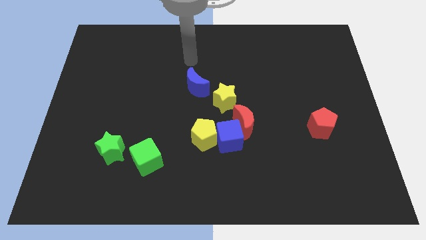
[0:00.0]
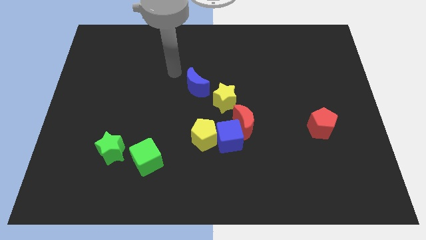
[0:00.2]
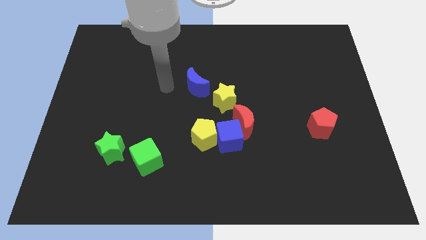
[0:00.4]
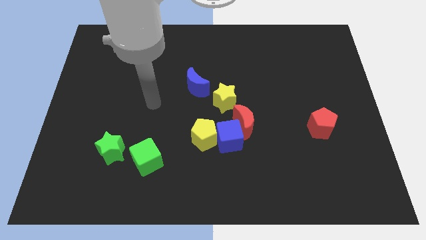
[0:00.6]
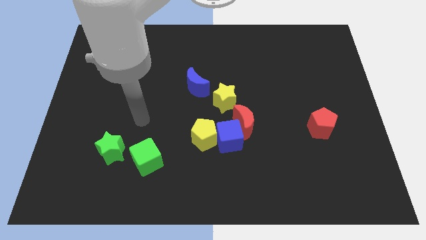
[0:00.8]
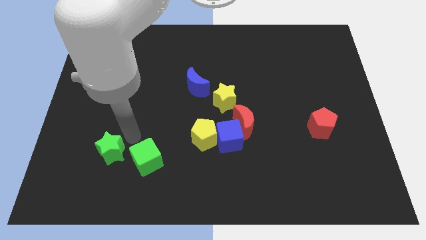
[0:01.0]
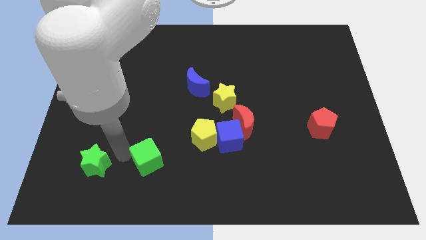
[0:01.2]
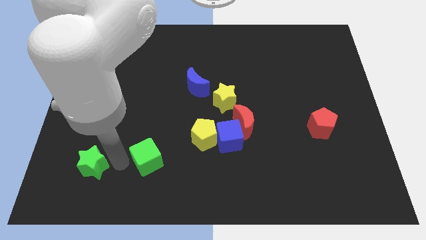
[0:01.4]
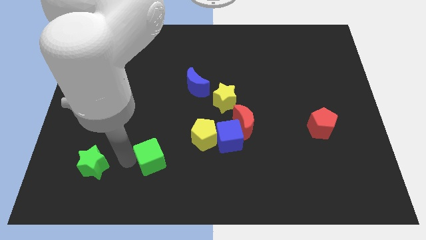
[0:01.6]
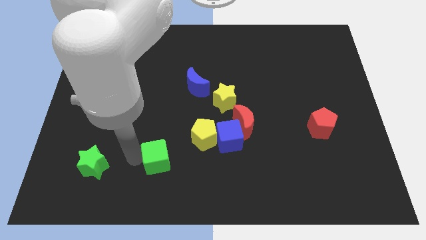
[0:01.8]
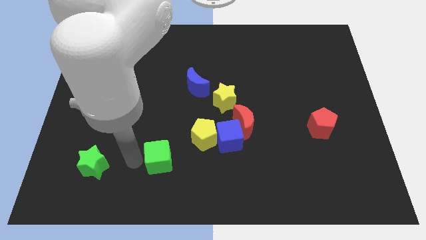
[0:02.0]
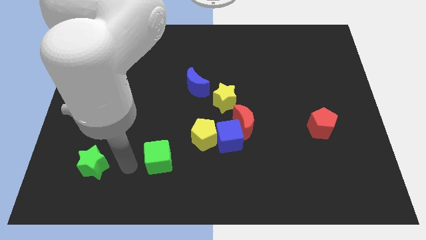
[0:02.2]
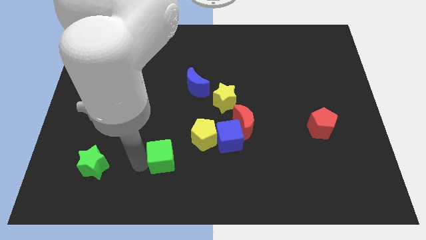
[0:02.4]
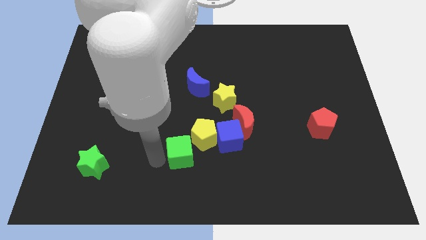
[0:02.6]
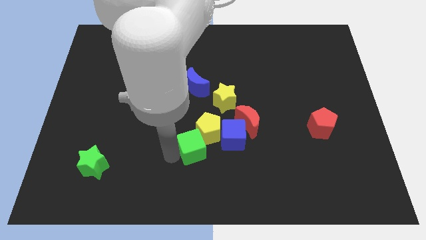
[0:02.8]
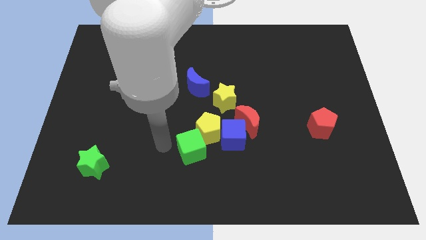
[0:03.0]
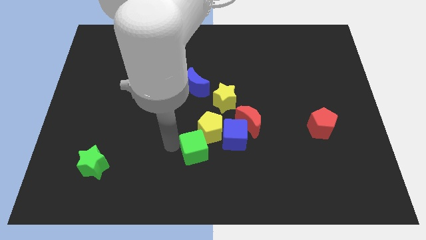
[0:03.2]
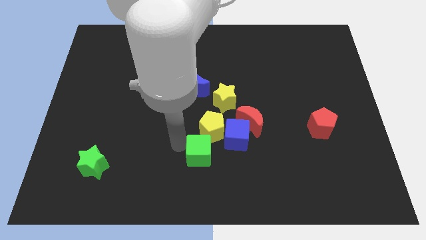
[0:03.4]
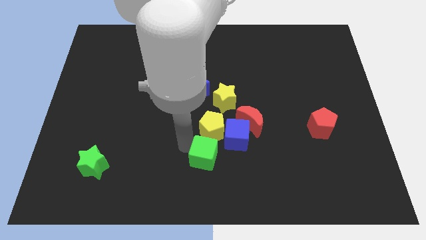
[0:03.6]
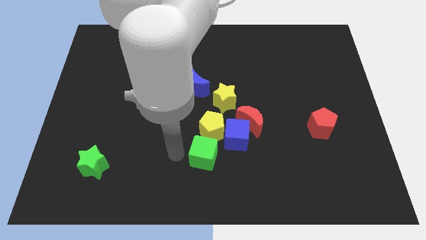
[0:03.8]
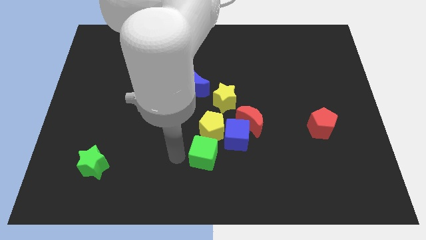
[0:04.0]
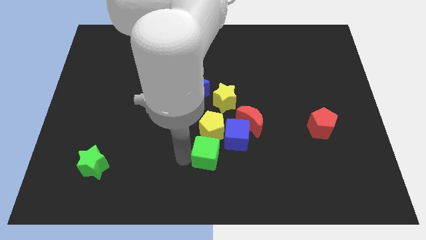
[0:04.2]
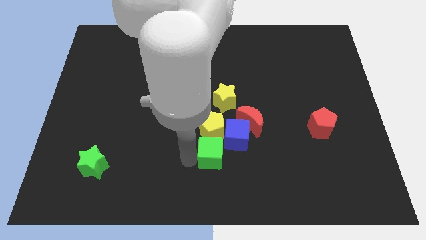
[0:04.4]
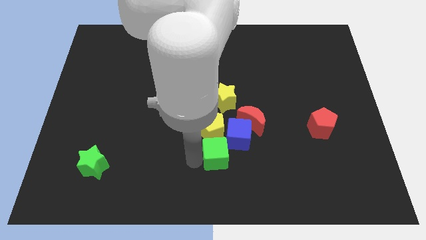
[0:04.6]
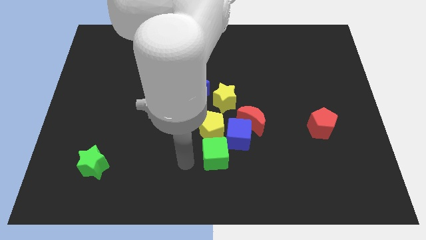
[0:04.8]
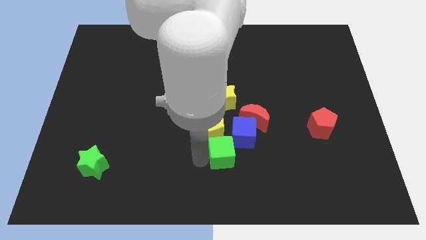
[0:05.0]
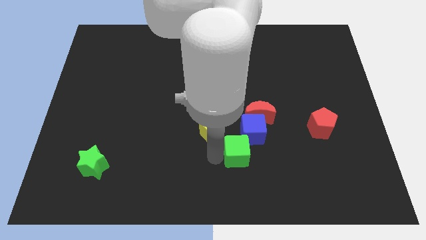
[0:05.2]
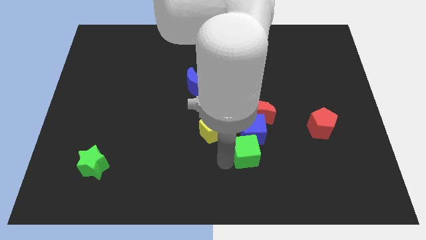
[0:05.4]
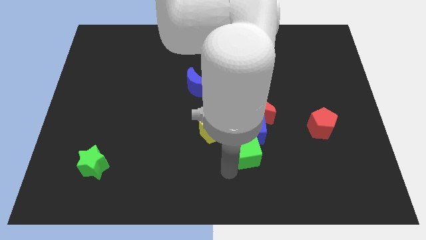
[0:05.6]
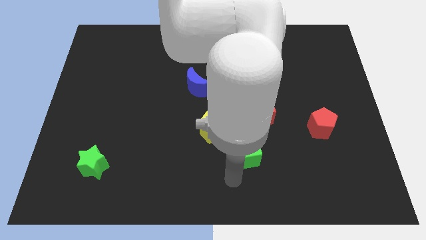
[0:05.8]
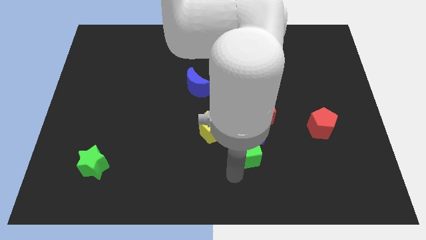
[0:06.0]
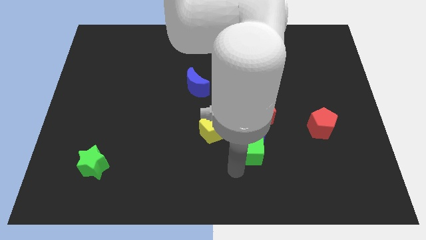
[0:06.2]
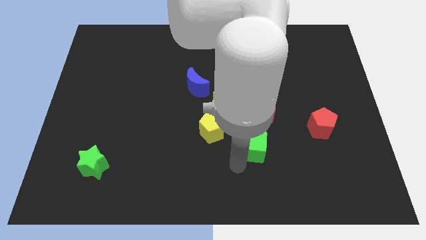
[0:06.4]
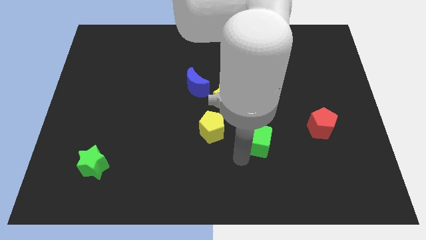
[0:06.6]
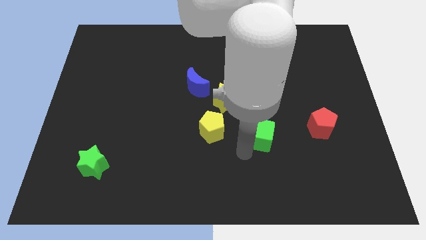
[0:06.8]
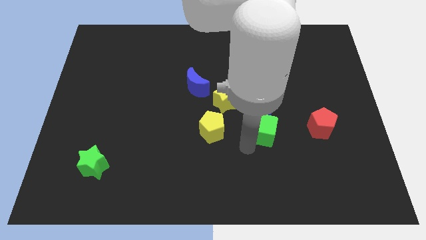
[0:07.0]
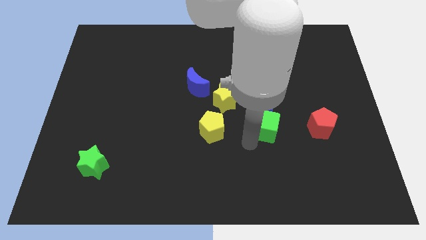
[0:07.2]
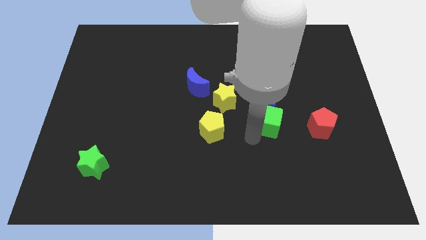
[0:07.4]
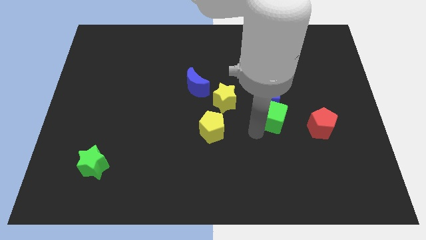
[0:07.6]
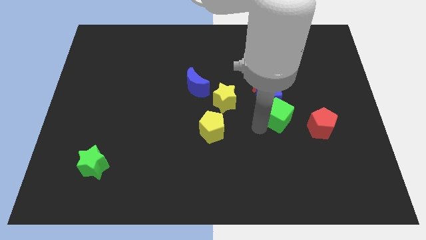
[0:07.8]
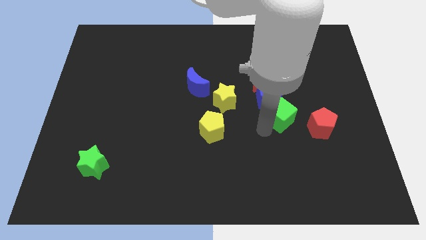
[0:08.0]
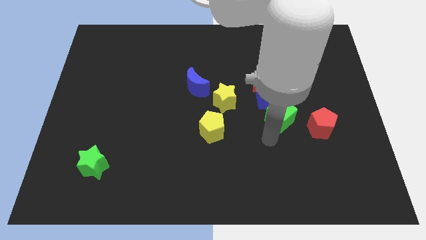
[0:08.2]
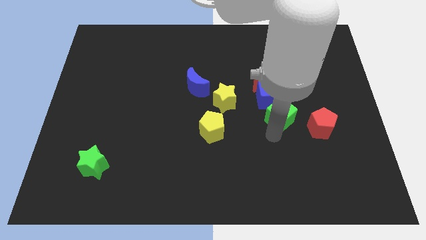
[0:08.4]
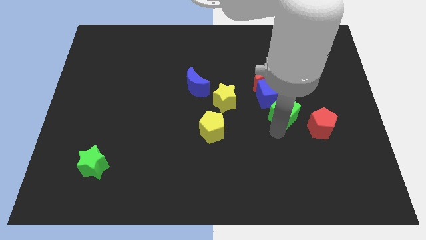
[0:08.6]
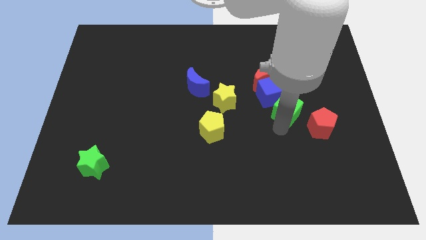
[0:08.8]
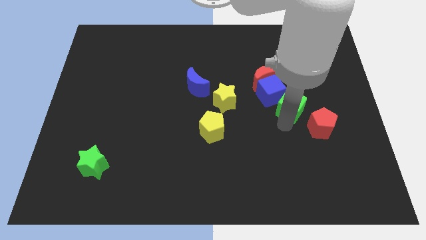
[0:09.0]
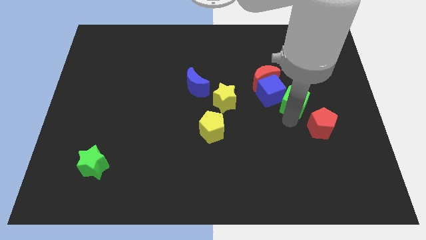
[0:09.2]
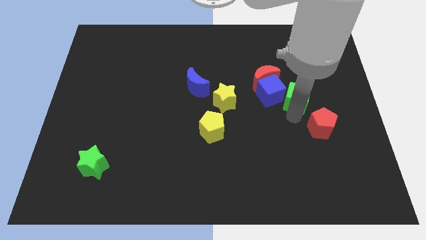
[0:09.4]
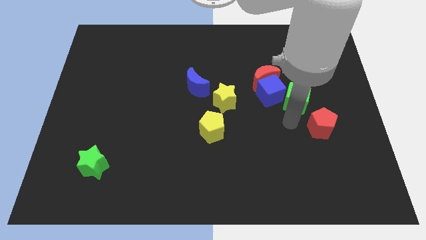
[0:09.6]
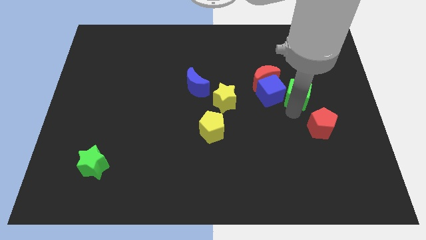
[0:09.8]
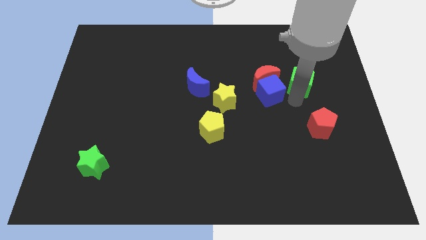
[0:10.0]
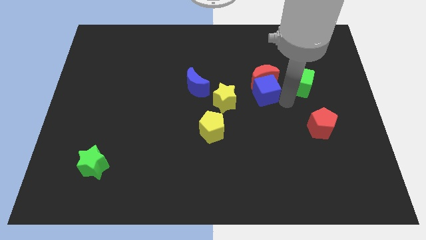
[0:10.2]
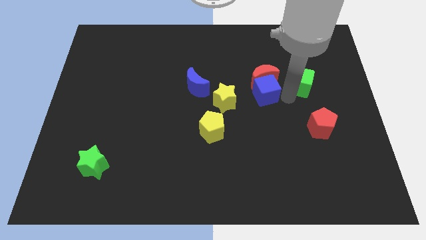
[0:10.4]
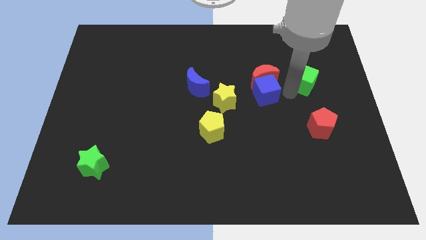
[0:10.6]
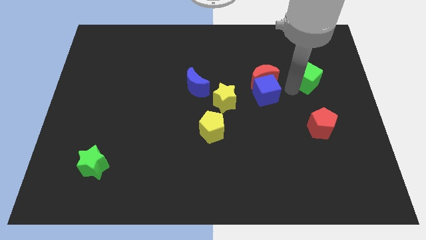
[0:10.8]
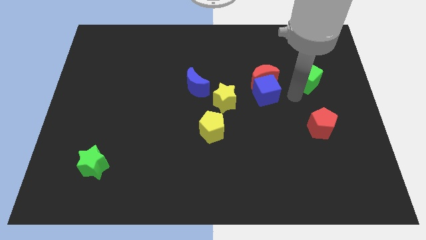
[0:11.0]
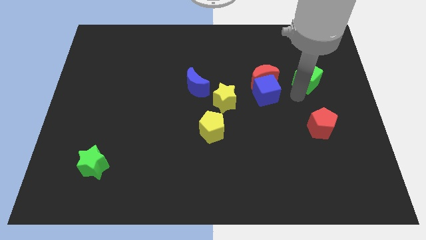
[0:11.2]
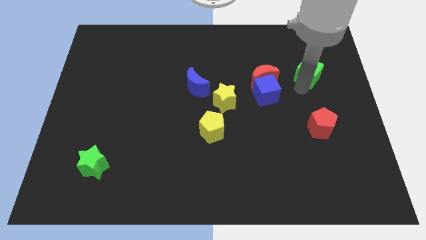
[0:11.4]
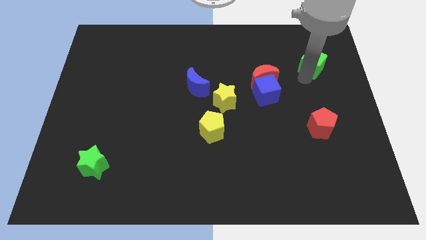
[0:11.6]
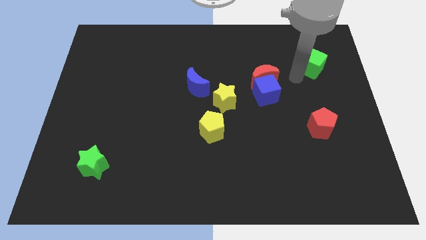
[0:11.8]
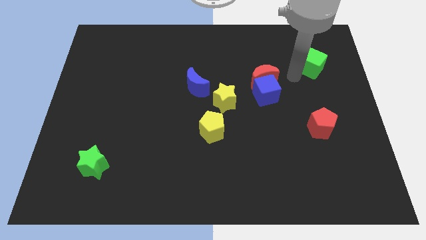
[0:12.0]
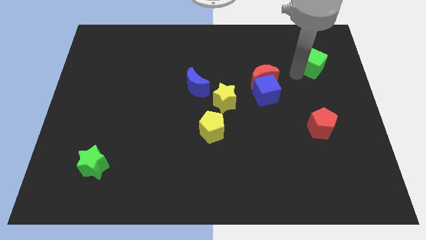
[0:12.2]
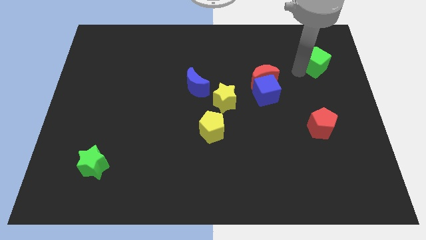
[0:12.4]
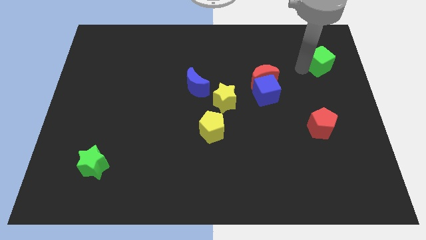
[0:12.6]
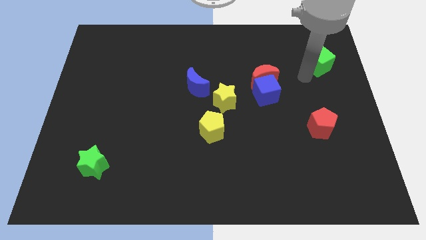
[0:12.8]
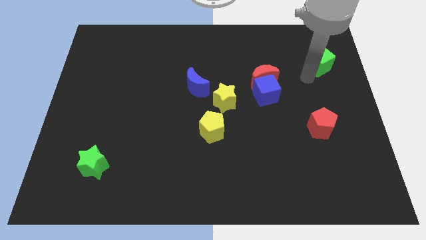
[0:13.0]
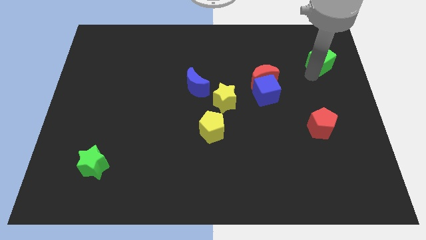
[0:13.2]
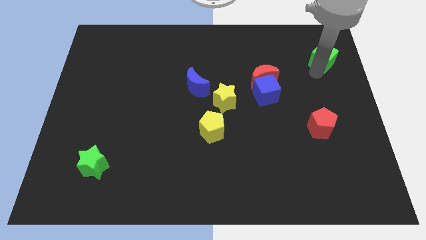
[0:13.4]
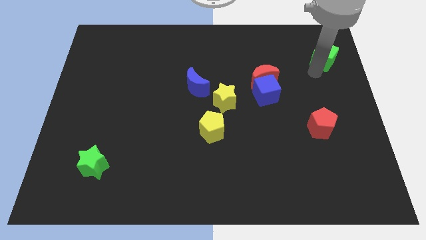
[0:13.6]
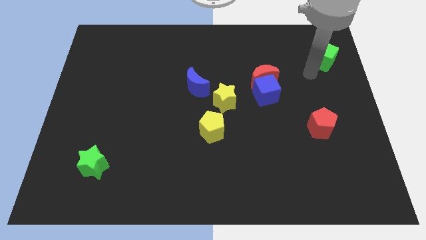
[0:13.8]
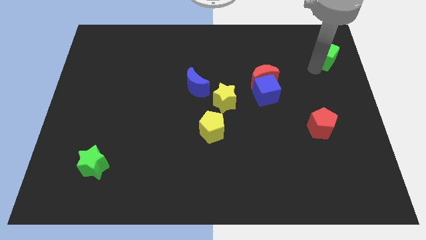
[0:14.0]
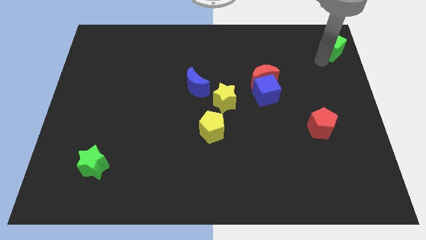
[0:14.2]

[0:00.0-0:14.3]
slide the green cube to the top right of the board

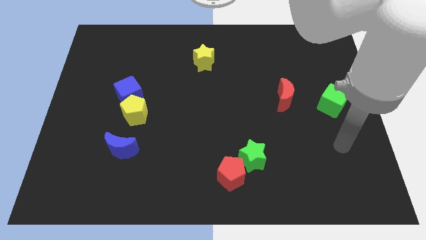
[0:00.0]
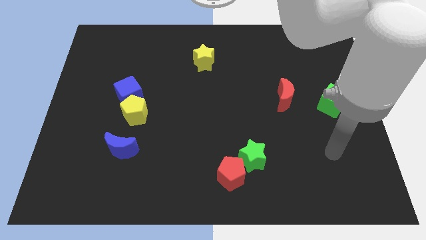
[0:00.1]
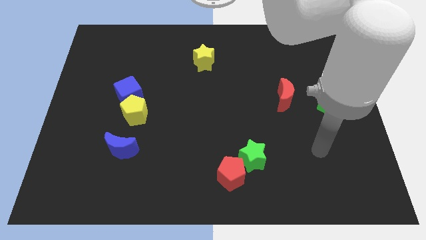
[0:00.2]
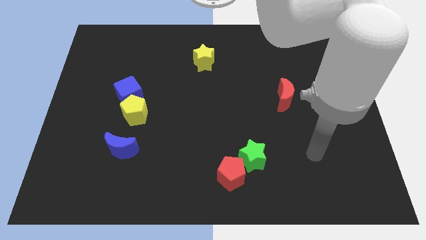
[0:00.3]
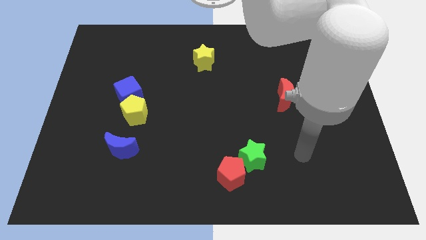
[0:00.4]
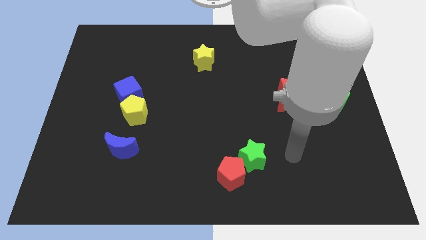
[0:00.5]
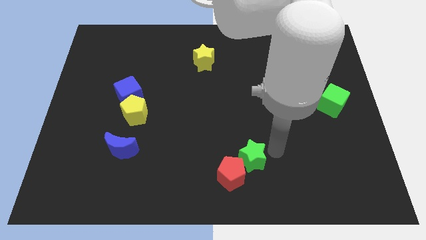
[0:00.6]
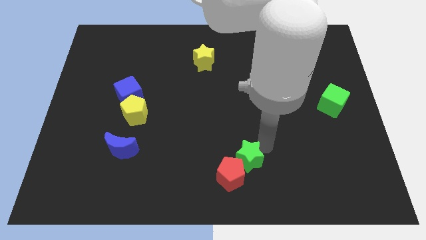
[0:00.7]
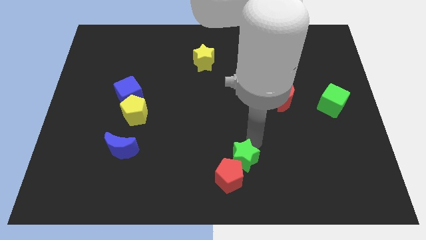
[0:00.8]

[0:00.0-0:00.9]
put the green star to the bottom
